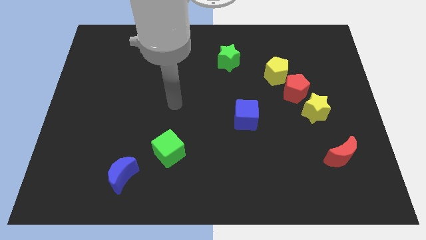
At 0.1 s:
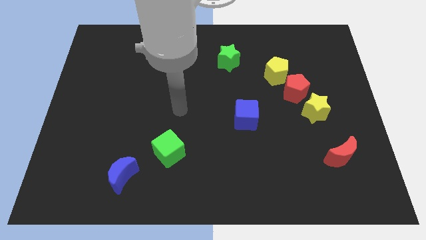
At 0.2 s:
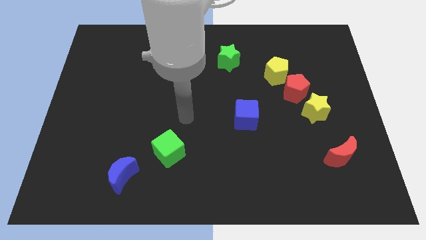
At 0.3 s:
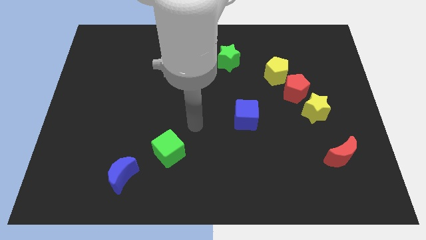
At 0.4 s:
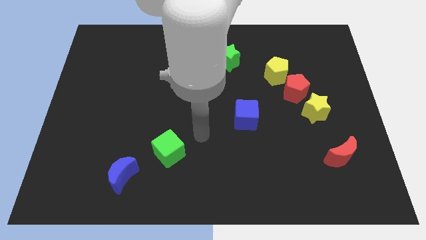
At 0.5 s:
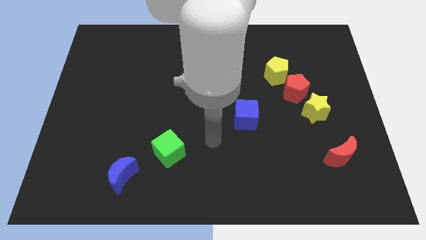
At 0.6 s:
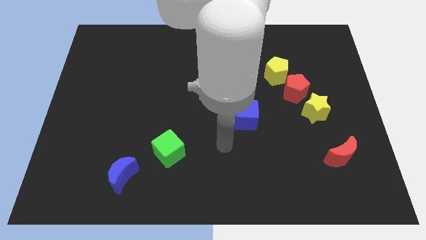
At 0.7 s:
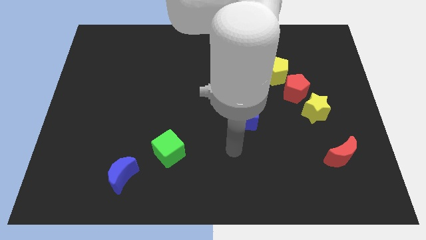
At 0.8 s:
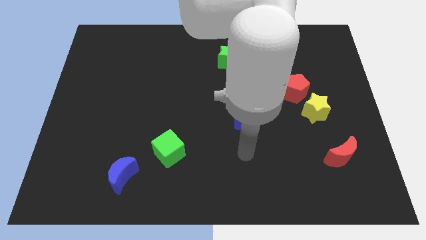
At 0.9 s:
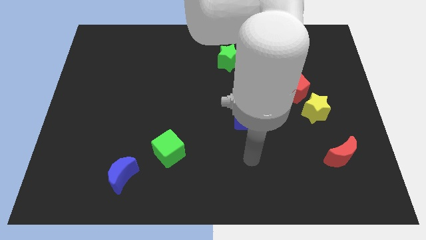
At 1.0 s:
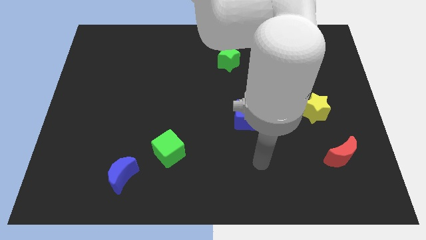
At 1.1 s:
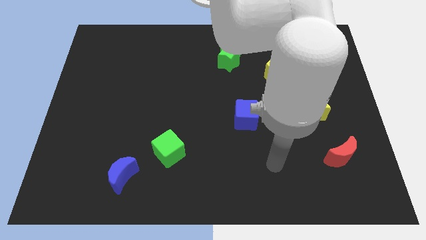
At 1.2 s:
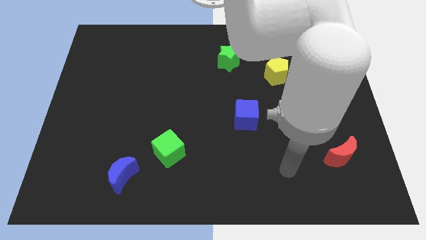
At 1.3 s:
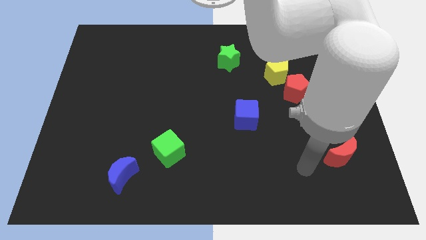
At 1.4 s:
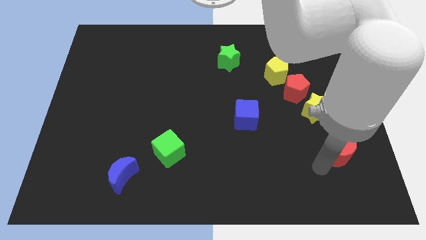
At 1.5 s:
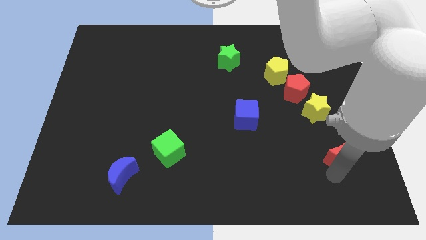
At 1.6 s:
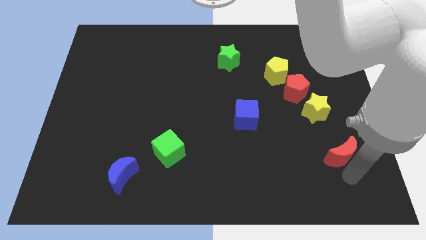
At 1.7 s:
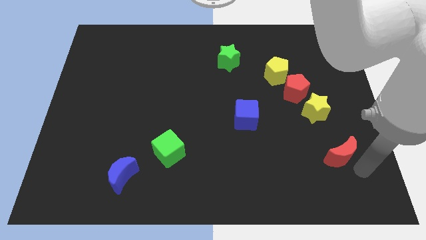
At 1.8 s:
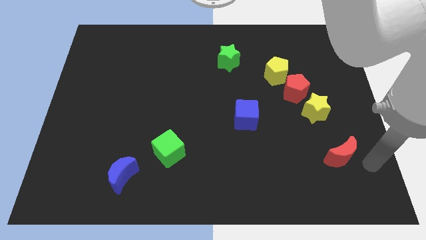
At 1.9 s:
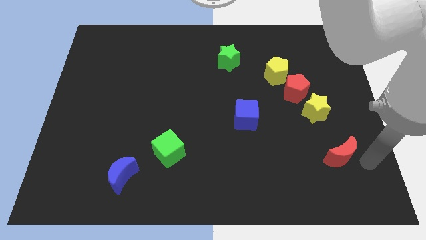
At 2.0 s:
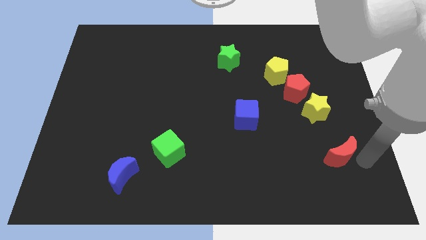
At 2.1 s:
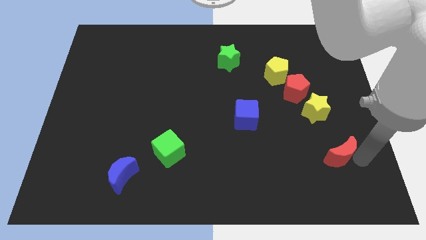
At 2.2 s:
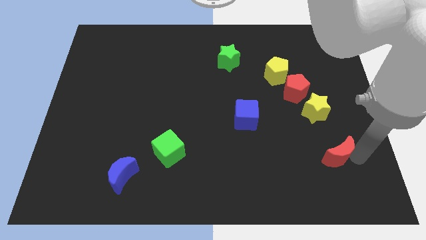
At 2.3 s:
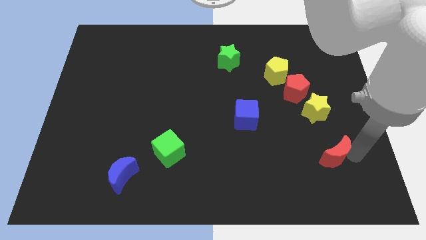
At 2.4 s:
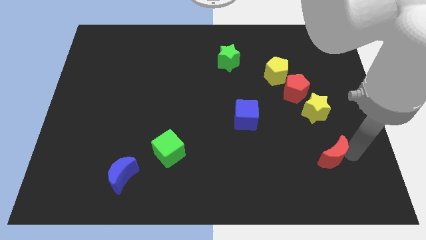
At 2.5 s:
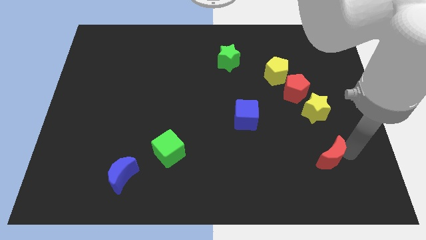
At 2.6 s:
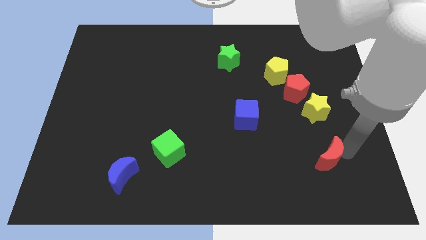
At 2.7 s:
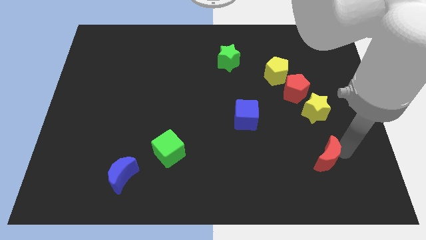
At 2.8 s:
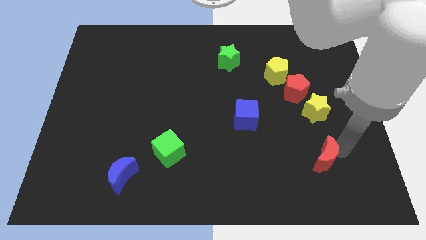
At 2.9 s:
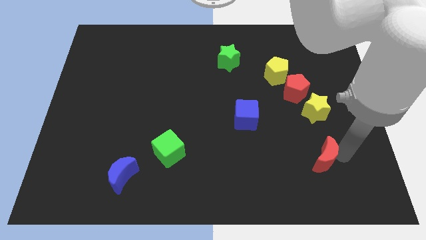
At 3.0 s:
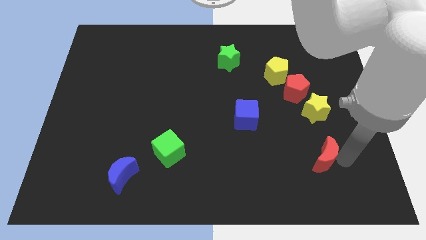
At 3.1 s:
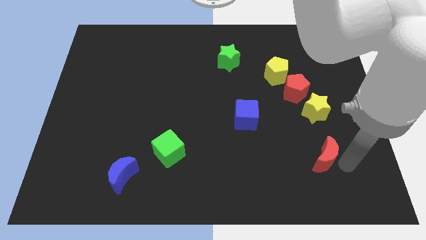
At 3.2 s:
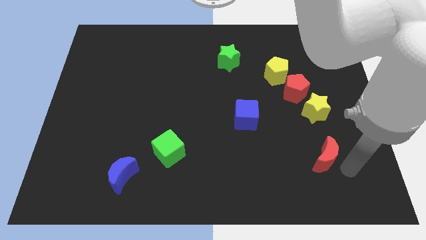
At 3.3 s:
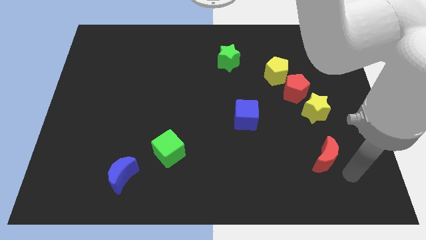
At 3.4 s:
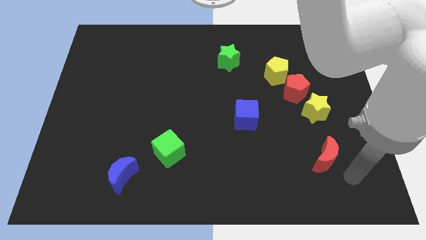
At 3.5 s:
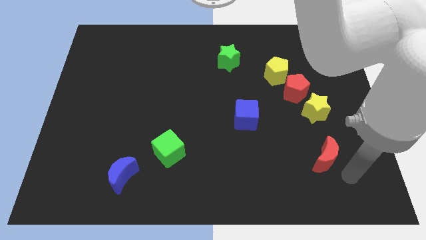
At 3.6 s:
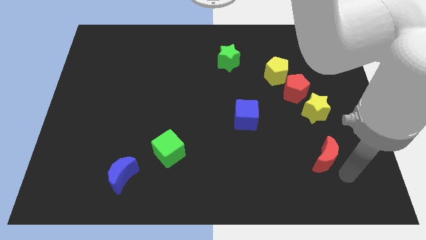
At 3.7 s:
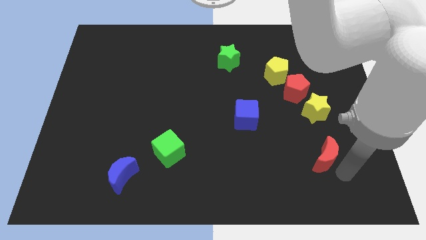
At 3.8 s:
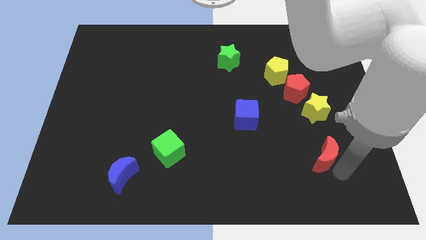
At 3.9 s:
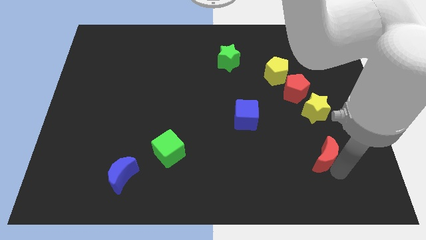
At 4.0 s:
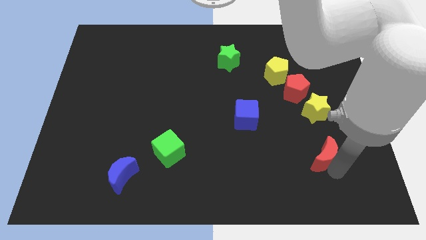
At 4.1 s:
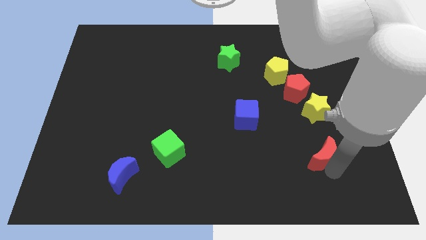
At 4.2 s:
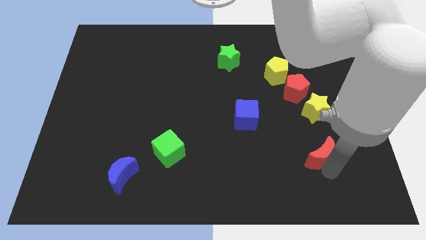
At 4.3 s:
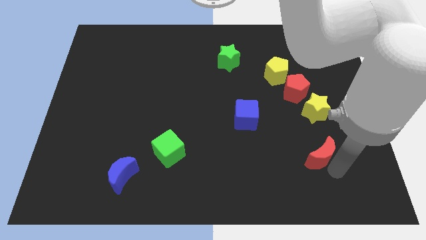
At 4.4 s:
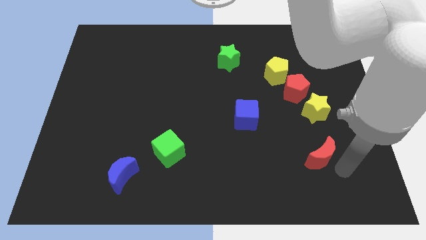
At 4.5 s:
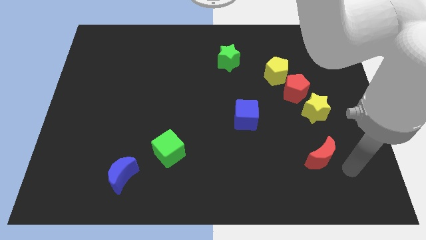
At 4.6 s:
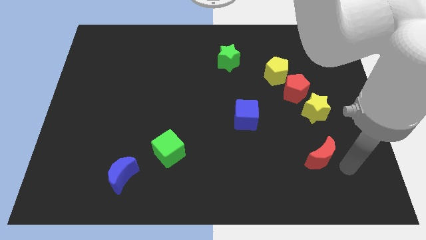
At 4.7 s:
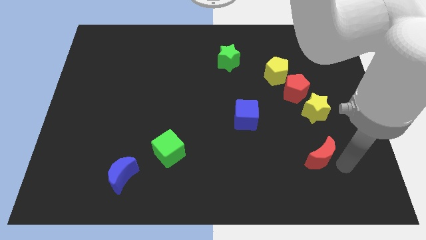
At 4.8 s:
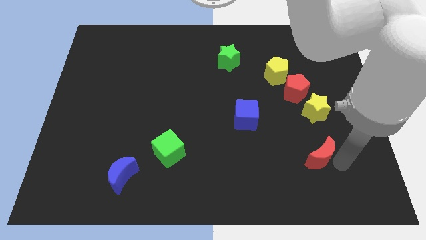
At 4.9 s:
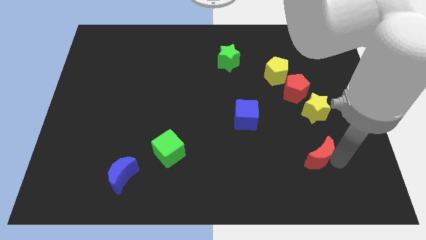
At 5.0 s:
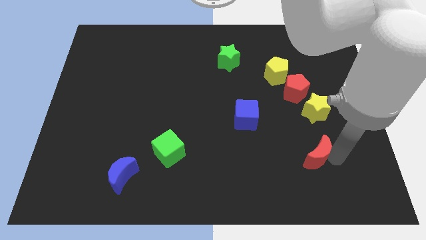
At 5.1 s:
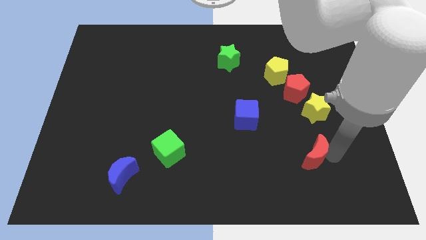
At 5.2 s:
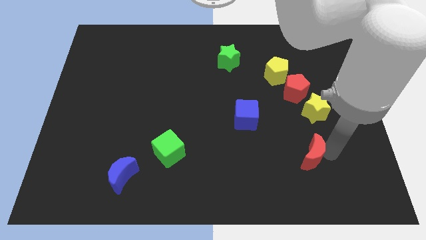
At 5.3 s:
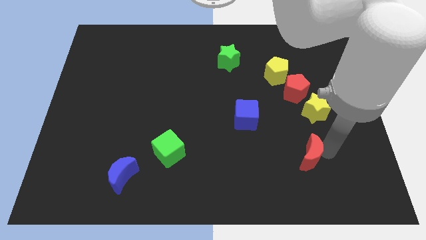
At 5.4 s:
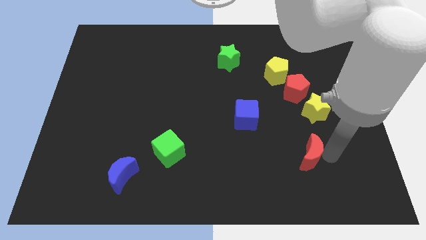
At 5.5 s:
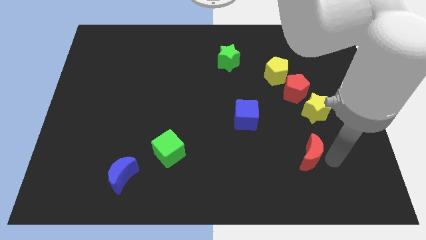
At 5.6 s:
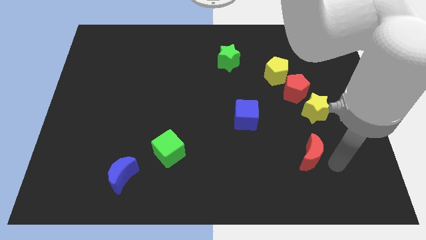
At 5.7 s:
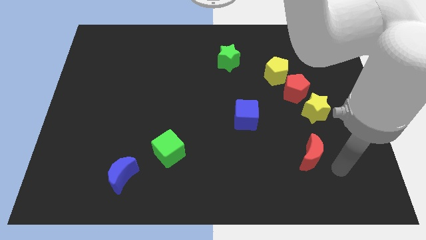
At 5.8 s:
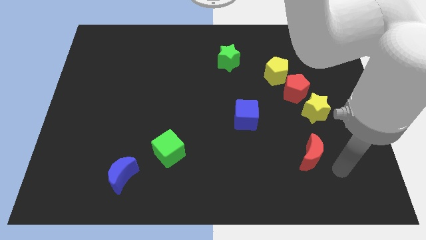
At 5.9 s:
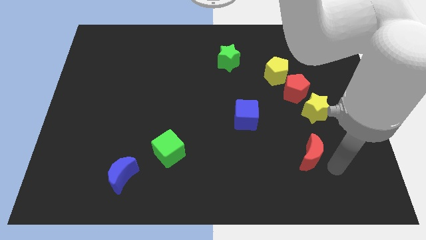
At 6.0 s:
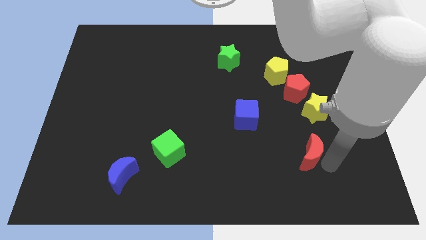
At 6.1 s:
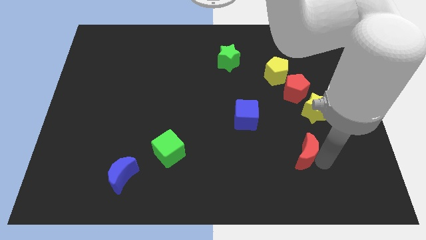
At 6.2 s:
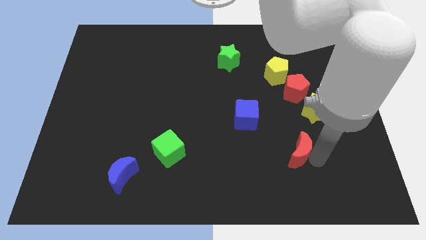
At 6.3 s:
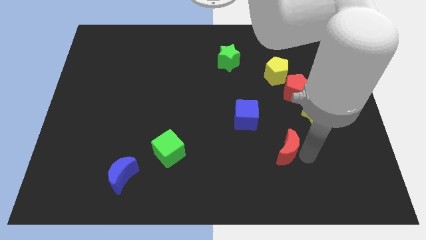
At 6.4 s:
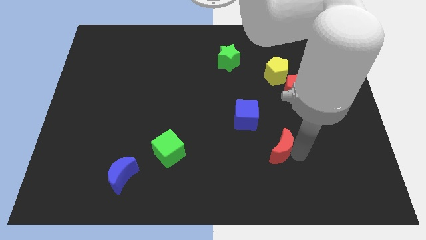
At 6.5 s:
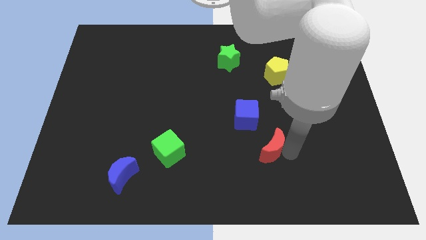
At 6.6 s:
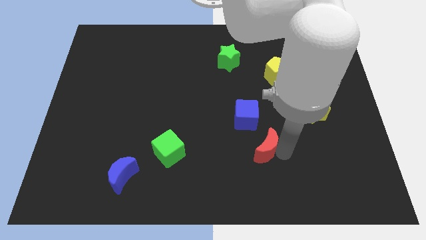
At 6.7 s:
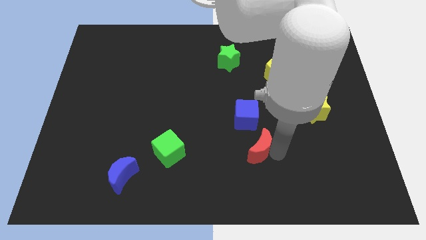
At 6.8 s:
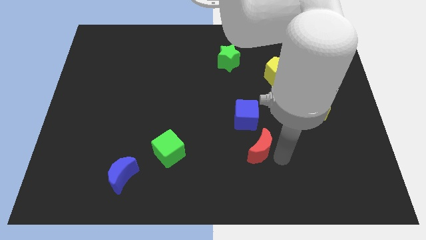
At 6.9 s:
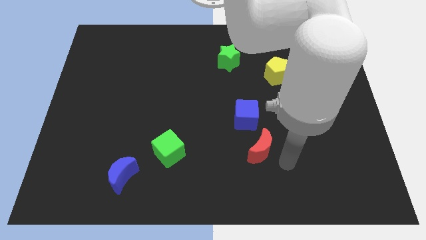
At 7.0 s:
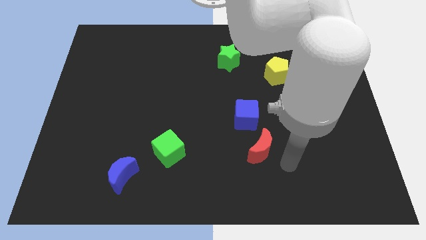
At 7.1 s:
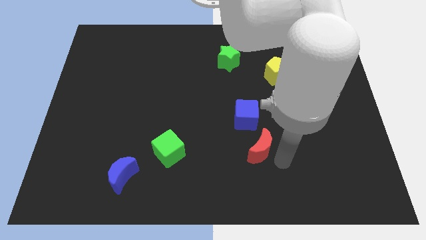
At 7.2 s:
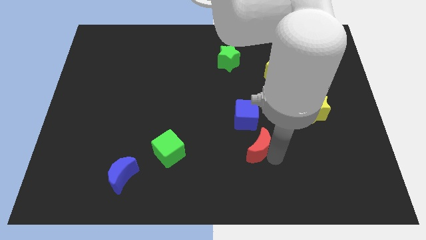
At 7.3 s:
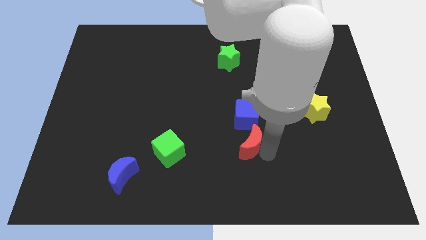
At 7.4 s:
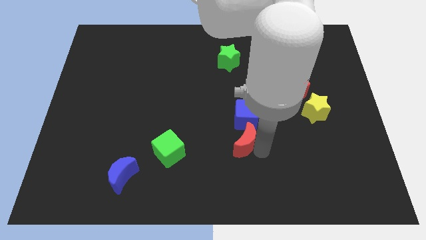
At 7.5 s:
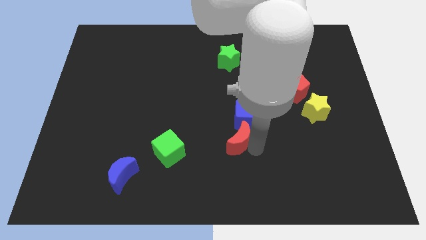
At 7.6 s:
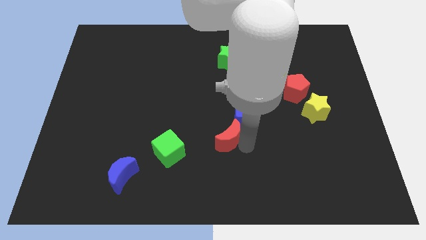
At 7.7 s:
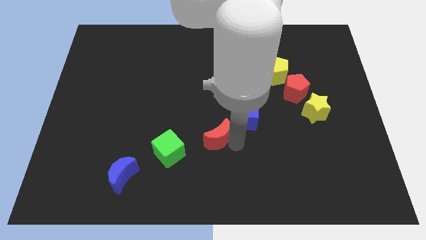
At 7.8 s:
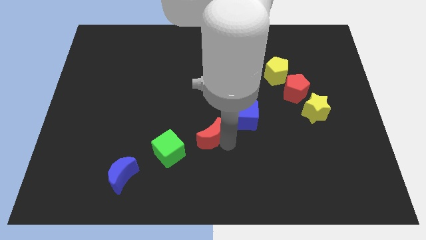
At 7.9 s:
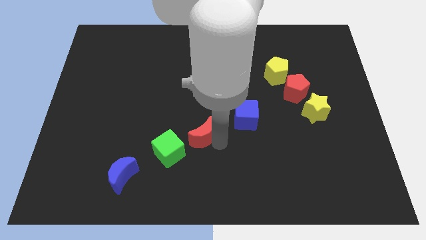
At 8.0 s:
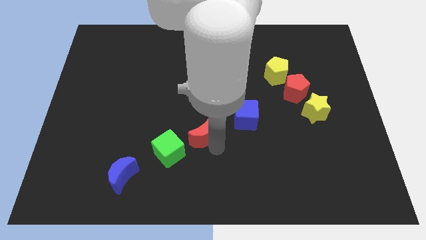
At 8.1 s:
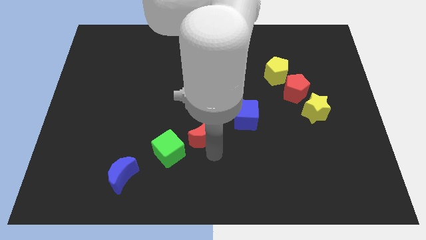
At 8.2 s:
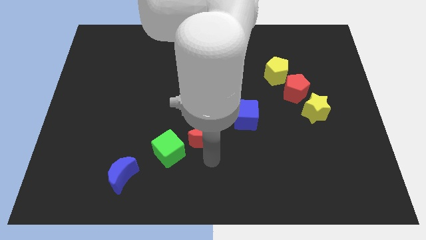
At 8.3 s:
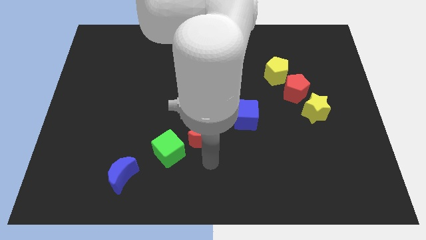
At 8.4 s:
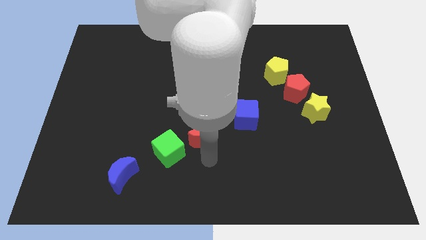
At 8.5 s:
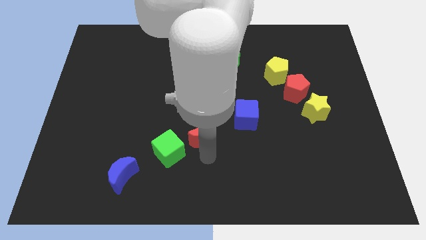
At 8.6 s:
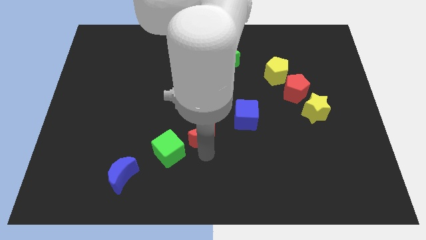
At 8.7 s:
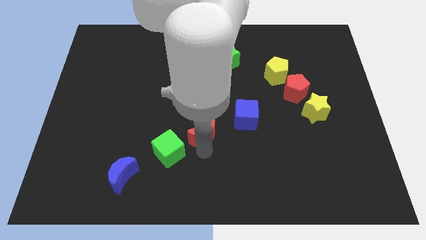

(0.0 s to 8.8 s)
move the red moon to the left of the blue cube
